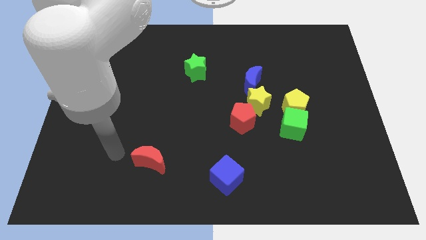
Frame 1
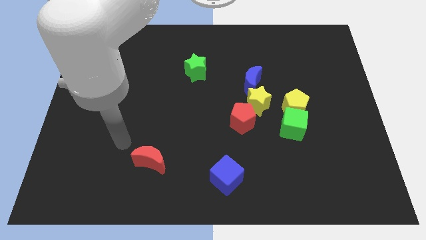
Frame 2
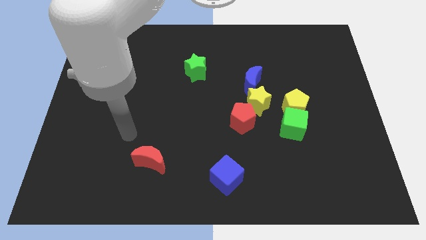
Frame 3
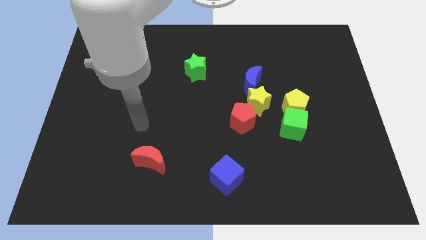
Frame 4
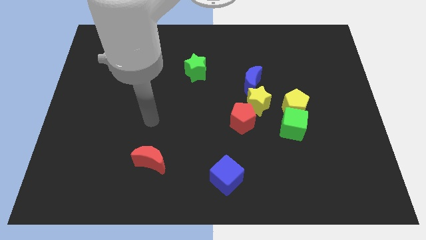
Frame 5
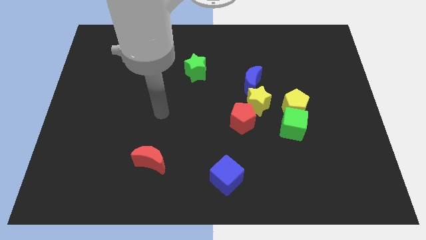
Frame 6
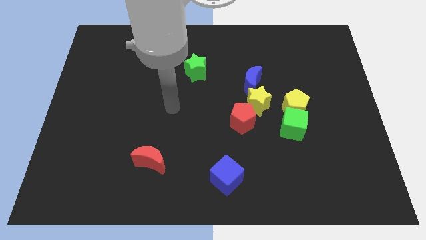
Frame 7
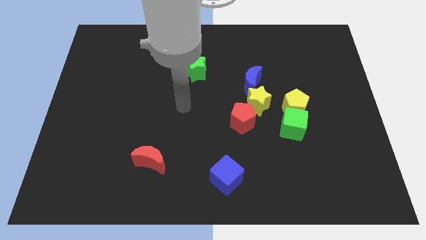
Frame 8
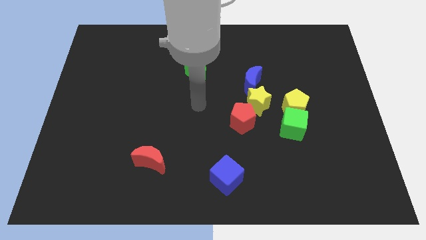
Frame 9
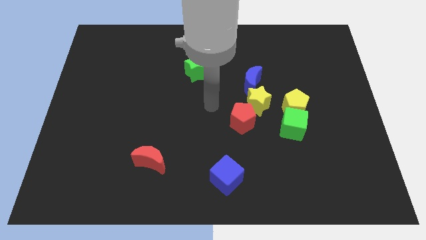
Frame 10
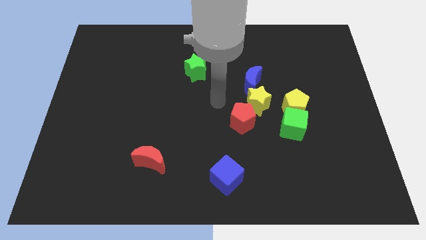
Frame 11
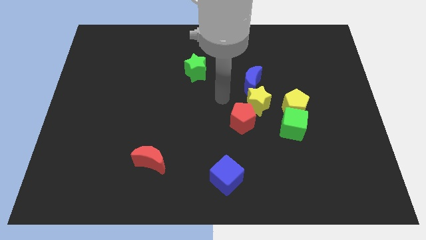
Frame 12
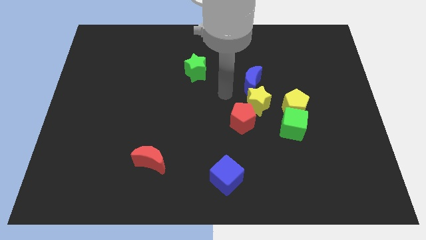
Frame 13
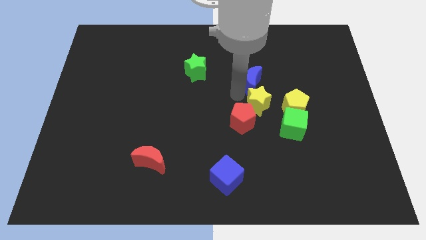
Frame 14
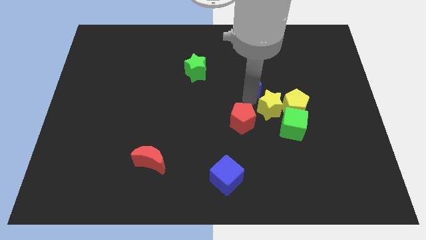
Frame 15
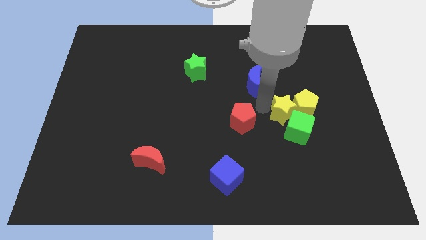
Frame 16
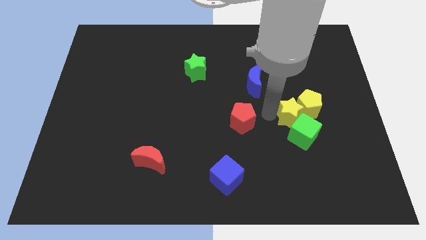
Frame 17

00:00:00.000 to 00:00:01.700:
separate the red pentagon from the yellow star

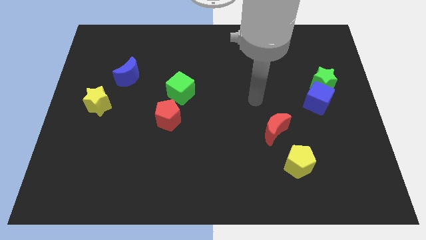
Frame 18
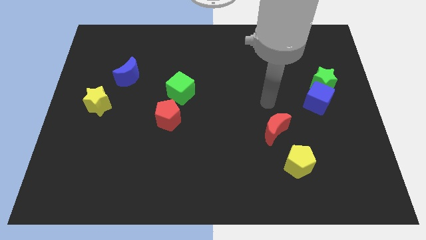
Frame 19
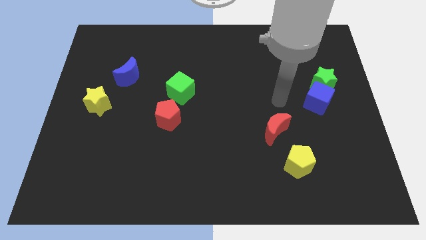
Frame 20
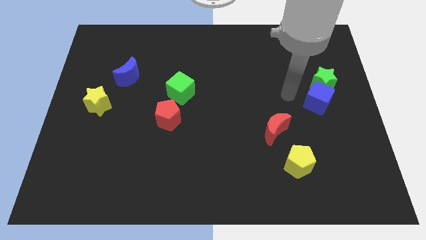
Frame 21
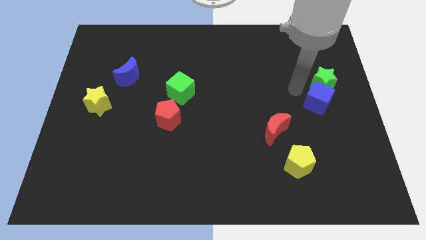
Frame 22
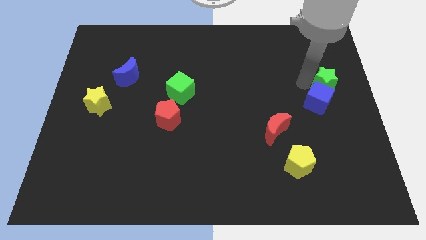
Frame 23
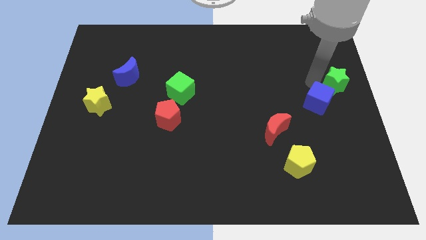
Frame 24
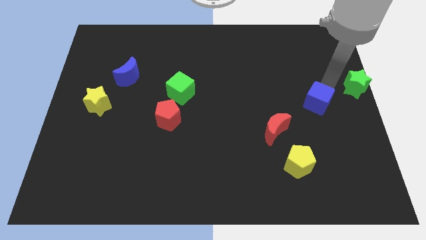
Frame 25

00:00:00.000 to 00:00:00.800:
pull the blue cube apart from the green star

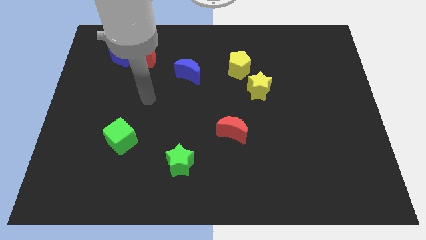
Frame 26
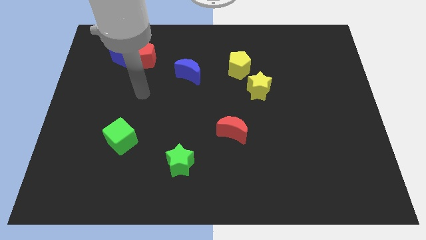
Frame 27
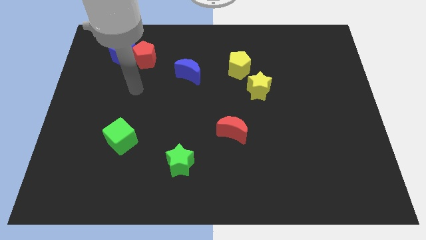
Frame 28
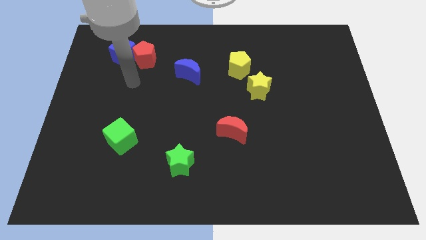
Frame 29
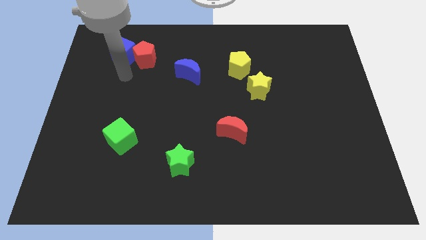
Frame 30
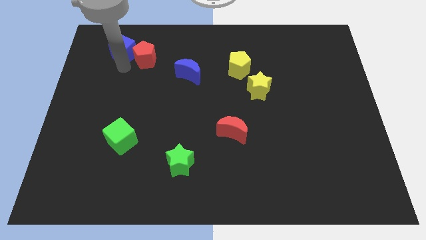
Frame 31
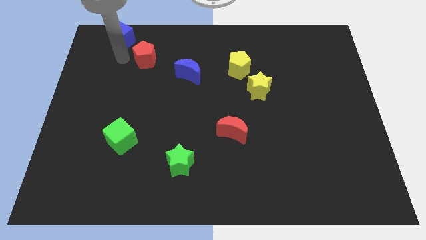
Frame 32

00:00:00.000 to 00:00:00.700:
separate the red pentagon from the blue cube

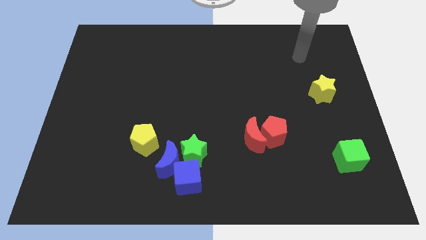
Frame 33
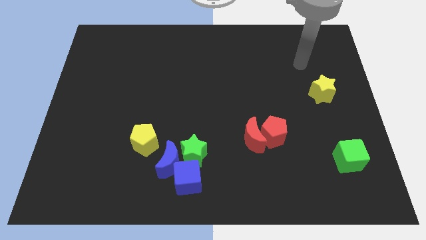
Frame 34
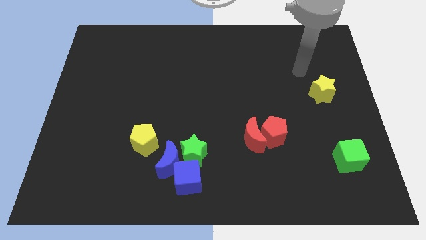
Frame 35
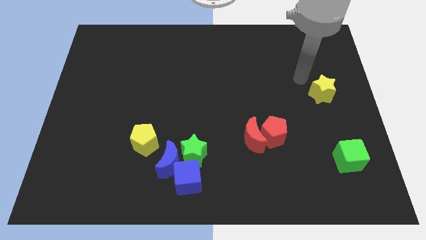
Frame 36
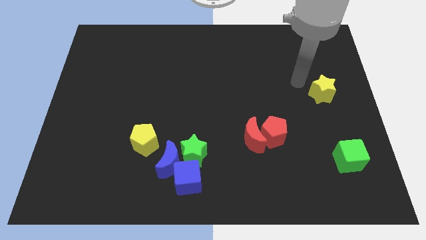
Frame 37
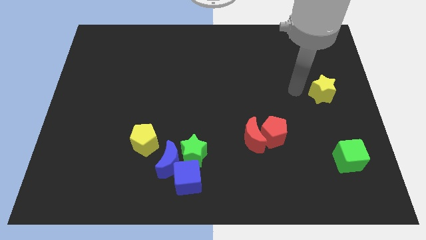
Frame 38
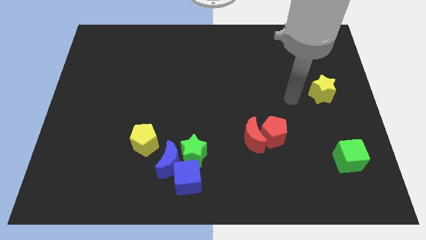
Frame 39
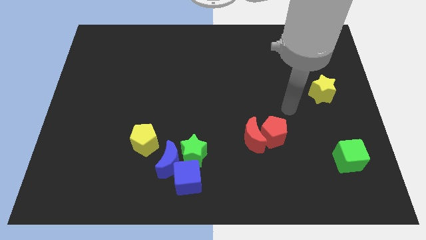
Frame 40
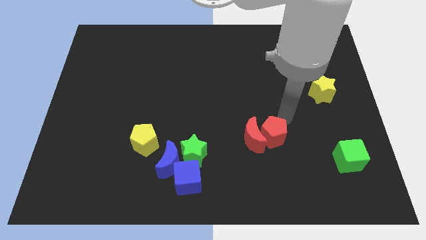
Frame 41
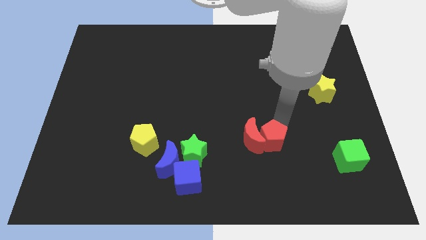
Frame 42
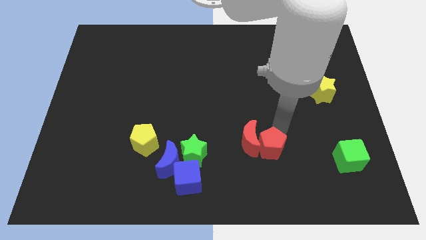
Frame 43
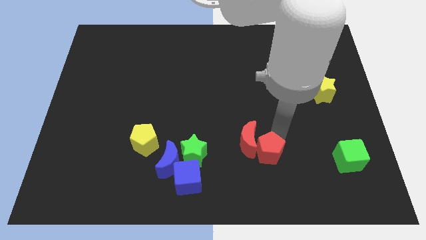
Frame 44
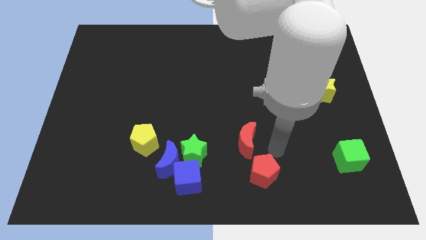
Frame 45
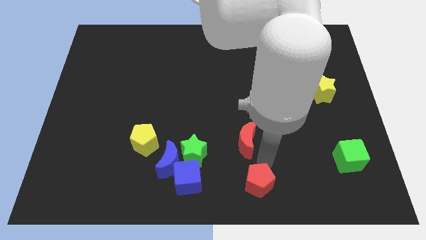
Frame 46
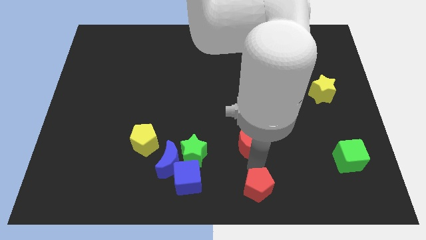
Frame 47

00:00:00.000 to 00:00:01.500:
pull the red moon apart from the red pentagon

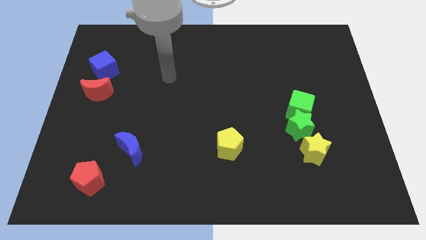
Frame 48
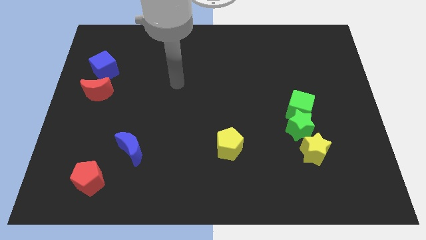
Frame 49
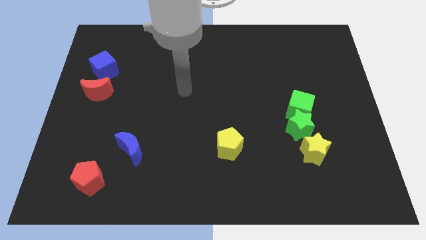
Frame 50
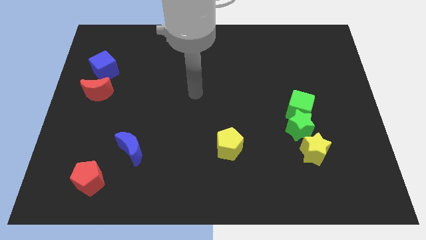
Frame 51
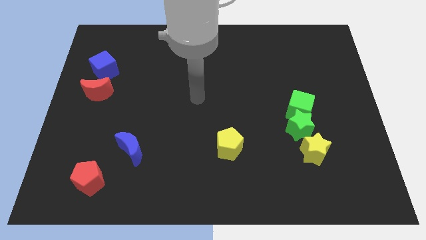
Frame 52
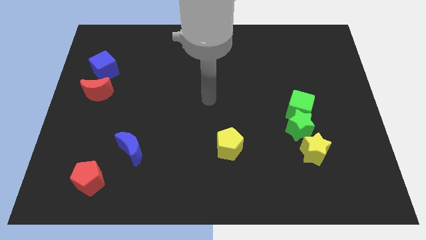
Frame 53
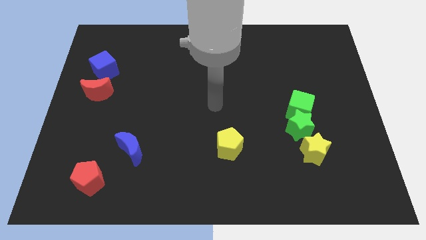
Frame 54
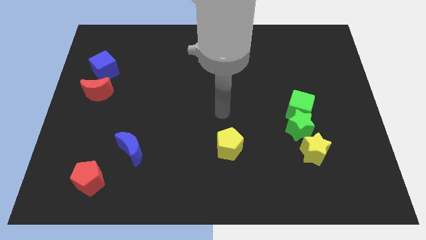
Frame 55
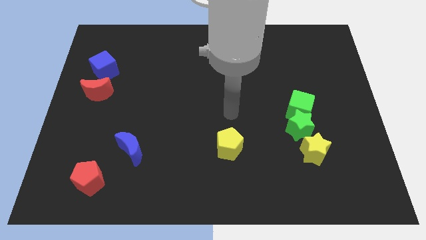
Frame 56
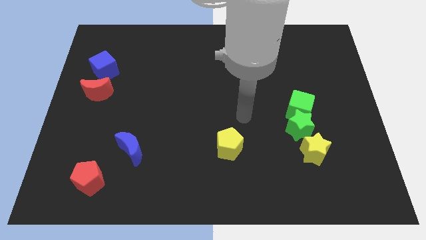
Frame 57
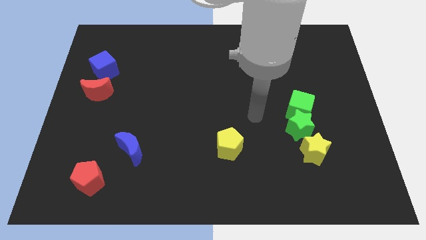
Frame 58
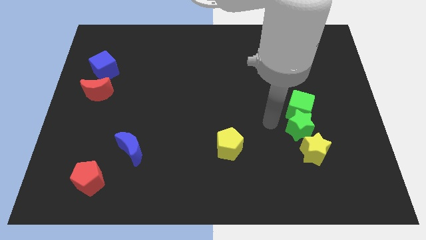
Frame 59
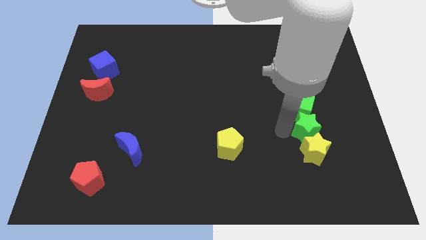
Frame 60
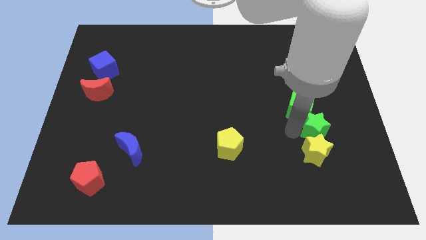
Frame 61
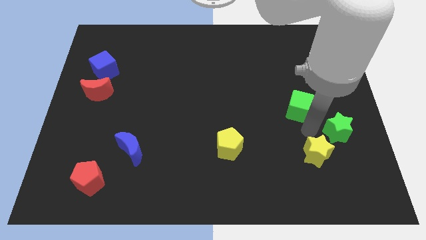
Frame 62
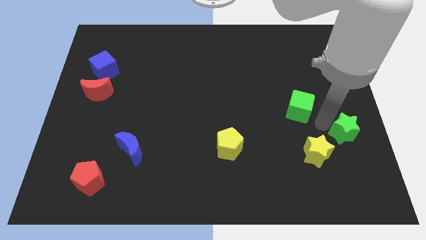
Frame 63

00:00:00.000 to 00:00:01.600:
pull the green cube apart from the green star

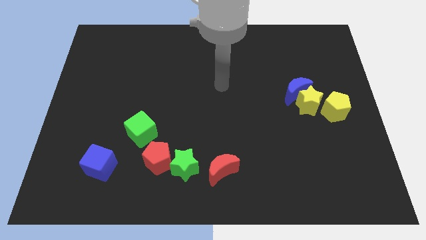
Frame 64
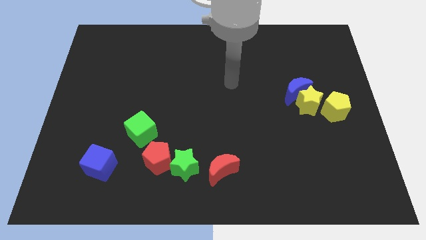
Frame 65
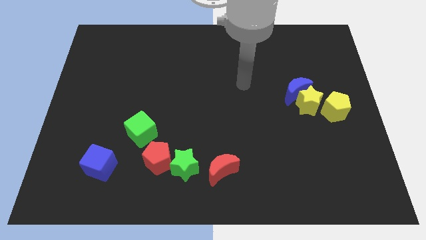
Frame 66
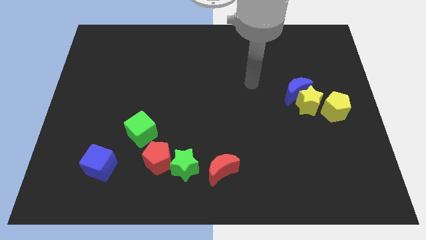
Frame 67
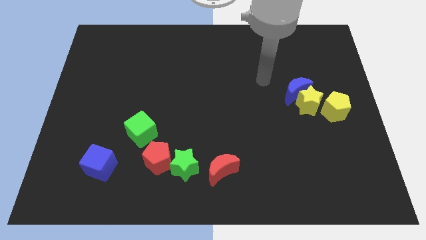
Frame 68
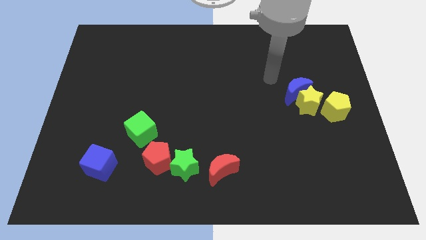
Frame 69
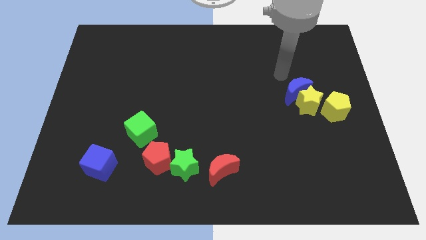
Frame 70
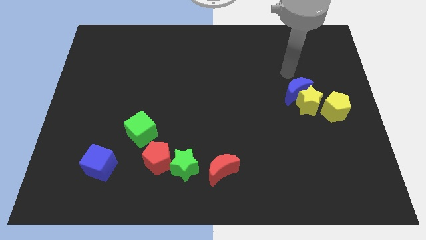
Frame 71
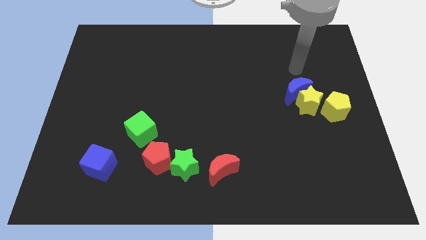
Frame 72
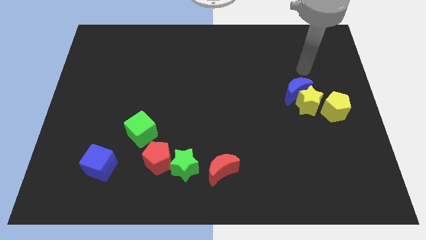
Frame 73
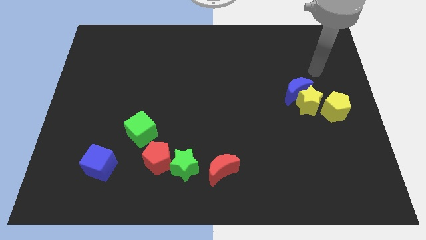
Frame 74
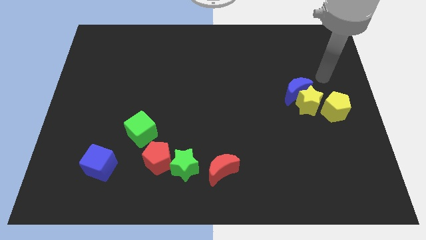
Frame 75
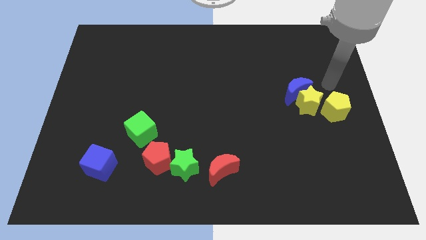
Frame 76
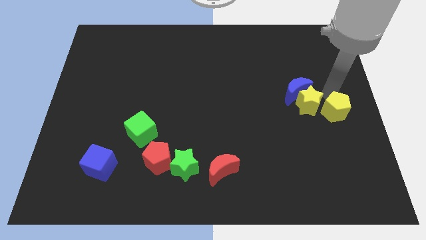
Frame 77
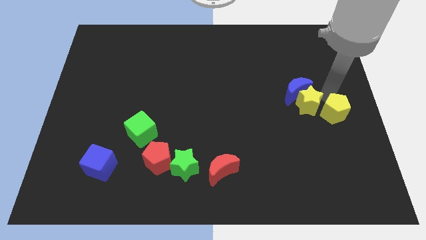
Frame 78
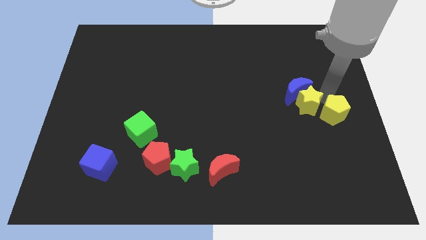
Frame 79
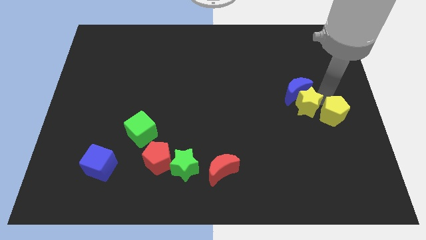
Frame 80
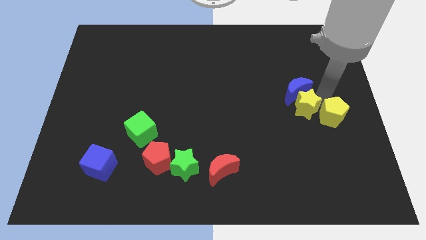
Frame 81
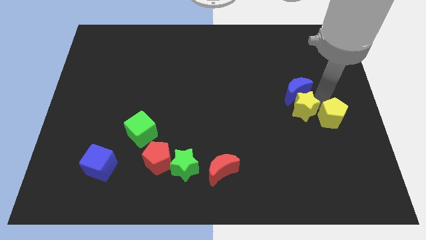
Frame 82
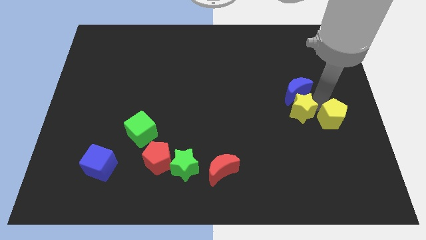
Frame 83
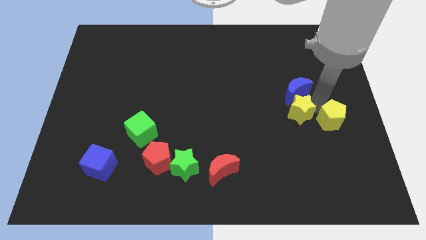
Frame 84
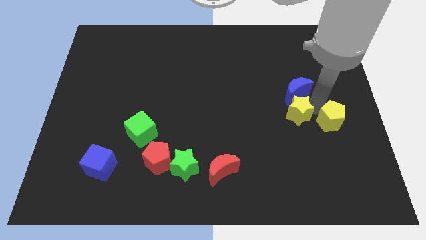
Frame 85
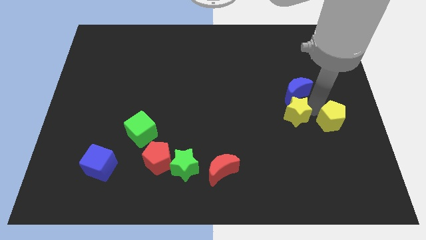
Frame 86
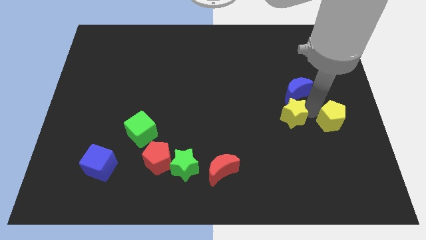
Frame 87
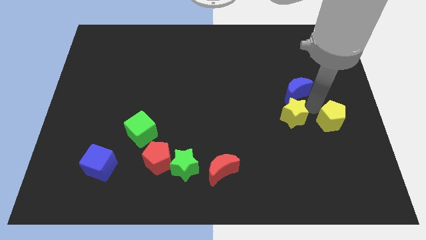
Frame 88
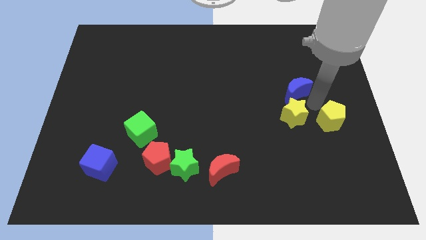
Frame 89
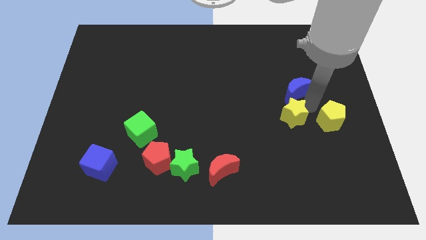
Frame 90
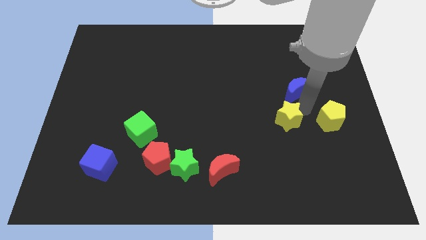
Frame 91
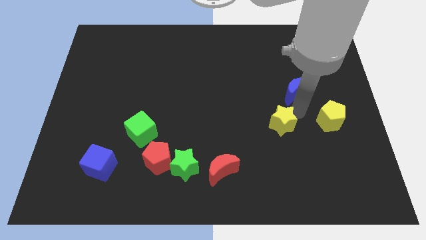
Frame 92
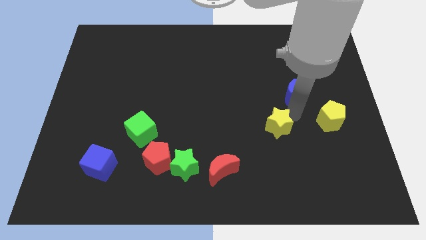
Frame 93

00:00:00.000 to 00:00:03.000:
separate the yellow star from the blue moon and yellow pentagon

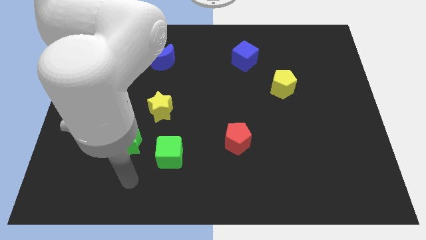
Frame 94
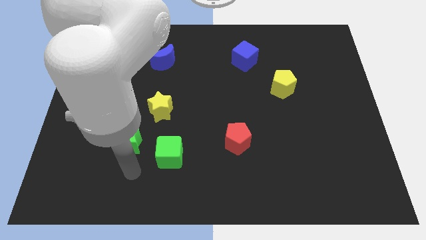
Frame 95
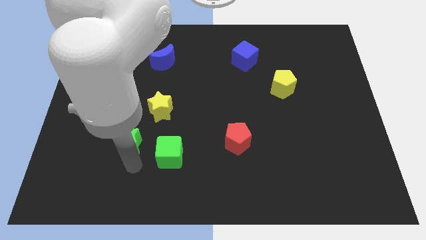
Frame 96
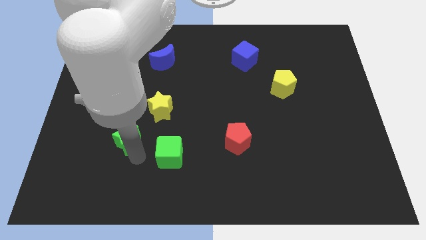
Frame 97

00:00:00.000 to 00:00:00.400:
separate the green cube from the green star
